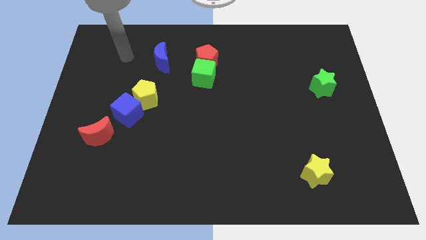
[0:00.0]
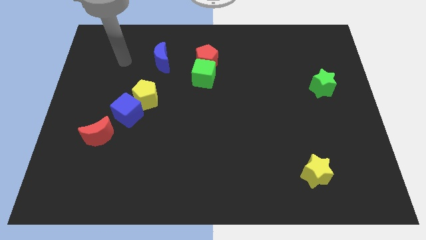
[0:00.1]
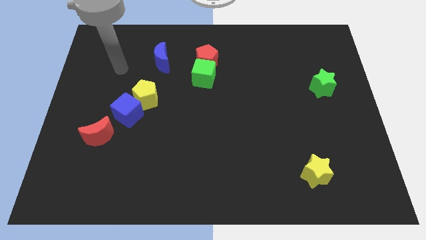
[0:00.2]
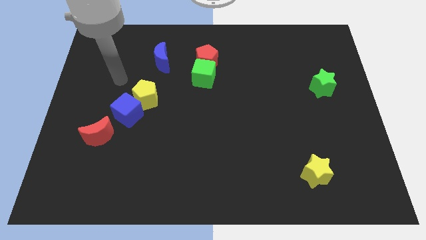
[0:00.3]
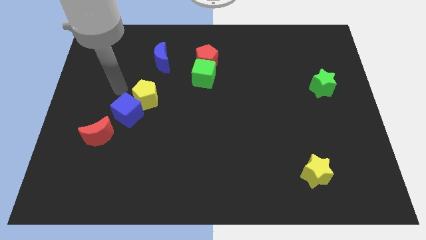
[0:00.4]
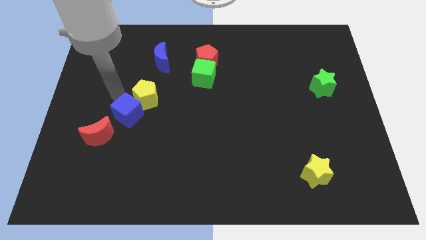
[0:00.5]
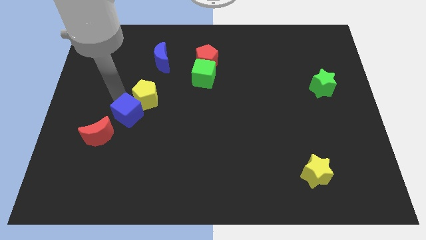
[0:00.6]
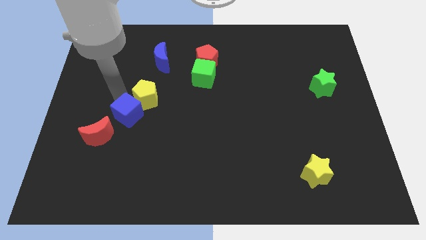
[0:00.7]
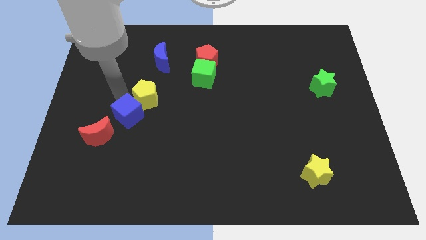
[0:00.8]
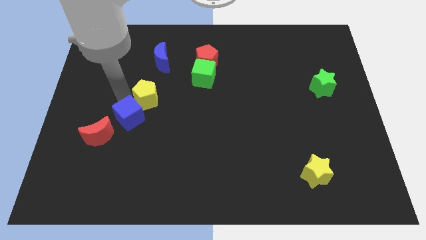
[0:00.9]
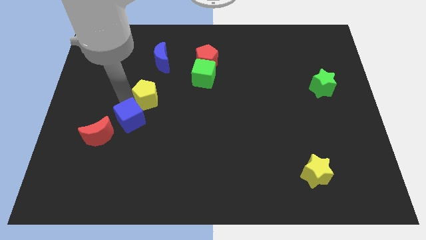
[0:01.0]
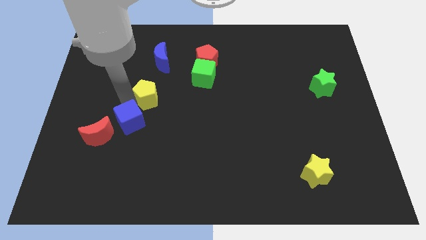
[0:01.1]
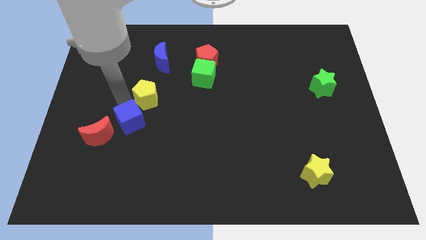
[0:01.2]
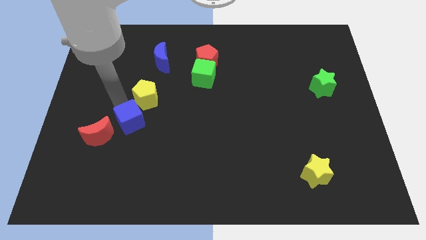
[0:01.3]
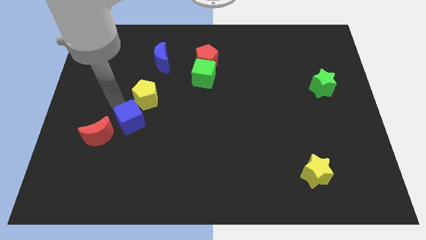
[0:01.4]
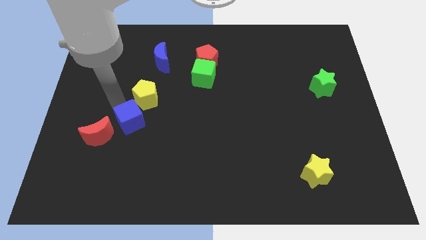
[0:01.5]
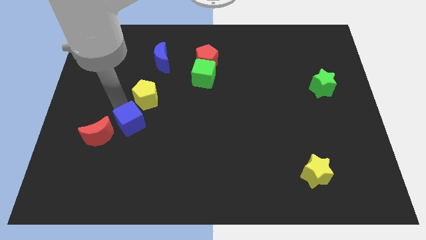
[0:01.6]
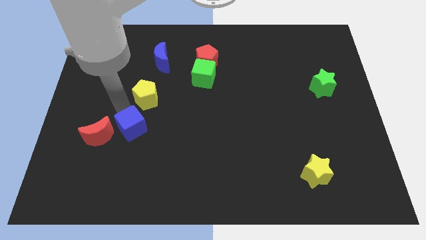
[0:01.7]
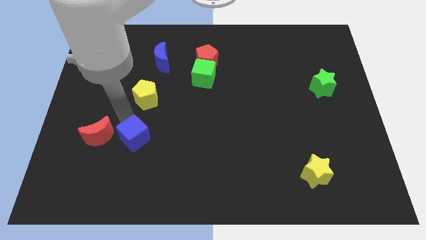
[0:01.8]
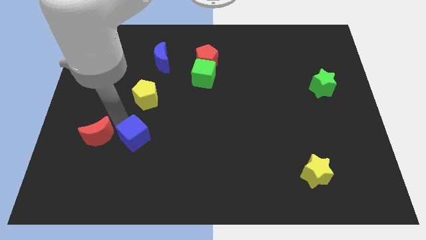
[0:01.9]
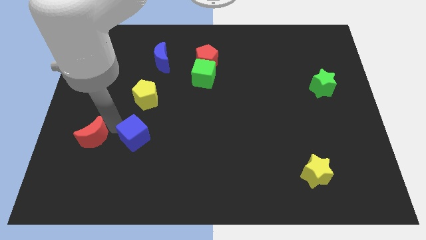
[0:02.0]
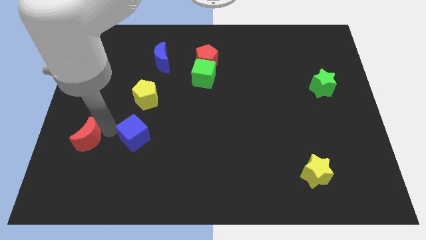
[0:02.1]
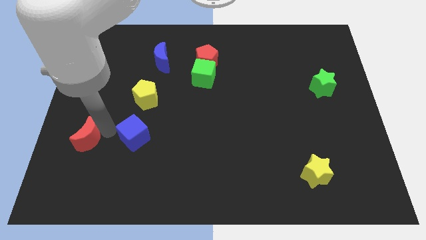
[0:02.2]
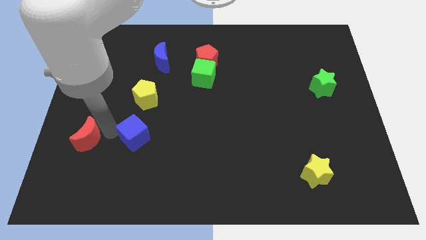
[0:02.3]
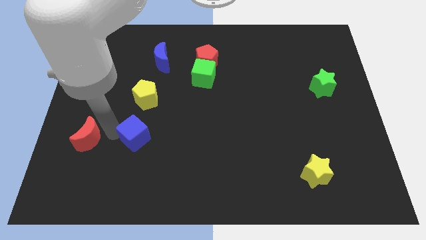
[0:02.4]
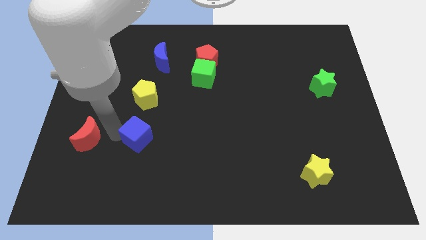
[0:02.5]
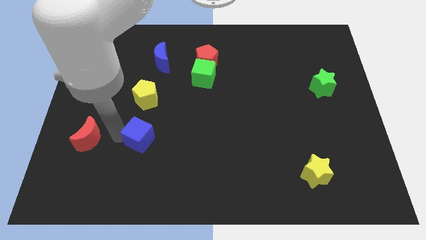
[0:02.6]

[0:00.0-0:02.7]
slightly push the blue cube down and to the right

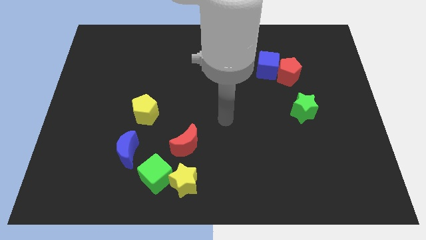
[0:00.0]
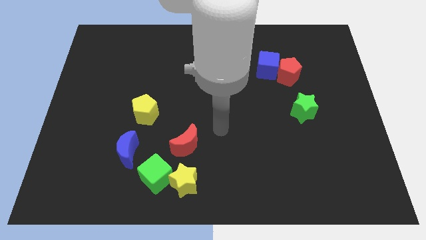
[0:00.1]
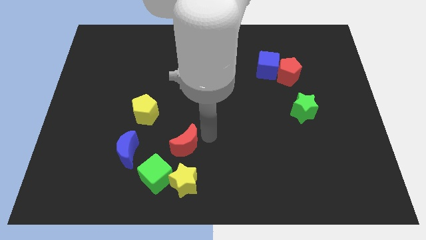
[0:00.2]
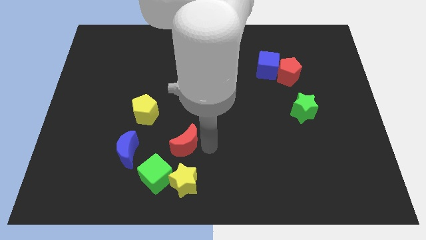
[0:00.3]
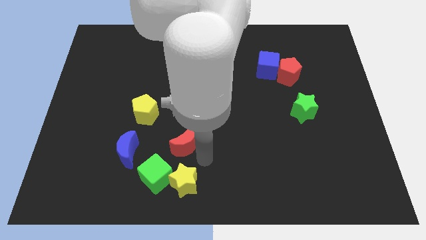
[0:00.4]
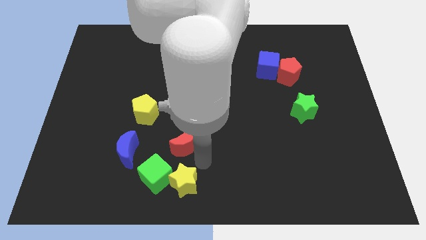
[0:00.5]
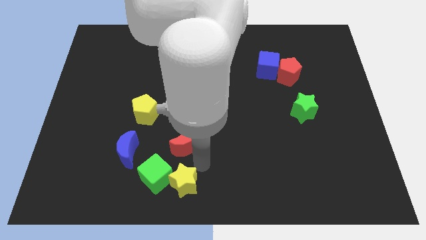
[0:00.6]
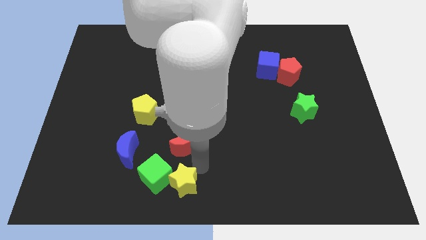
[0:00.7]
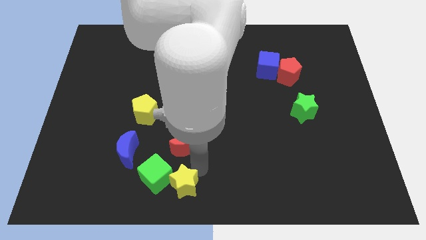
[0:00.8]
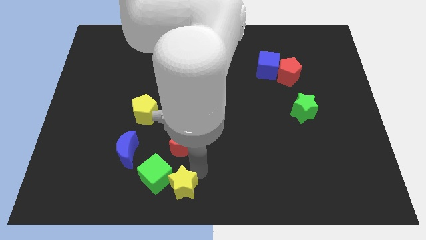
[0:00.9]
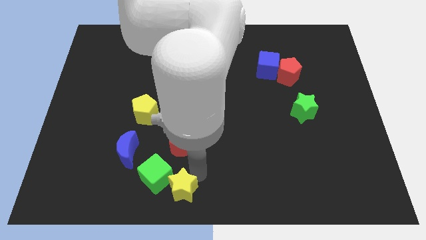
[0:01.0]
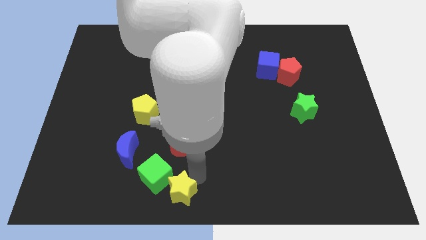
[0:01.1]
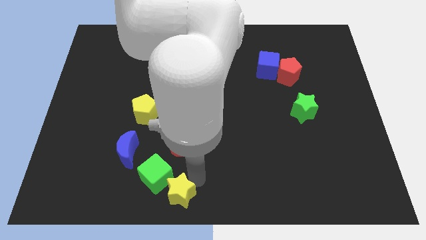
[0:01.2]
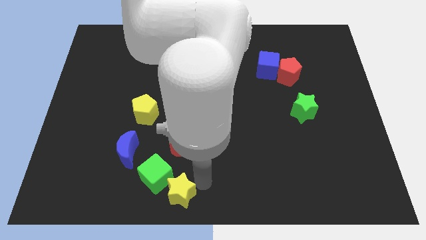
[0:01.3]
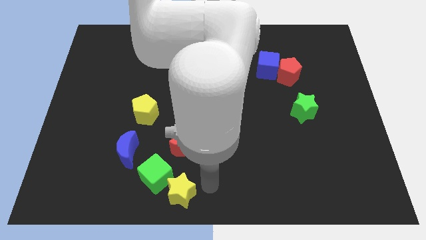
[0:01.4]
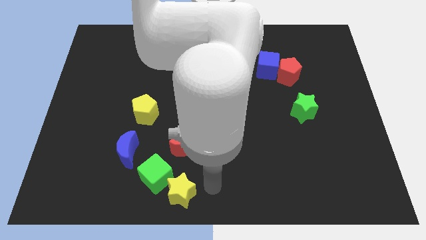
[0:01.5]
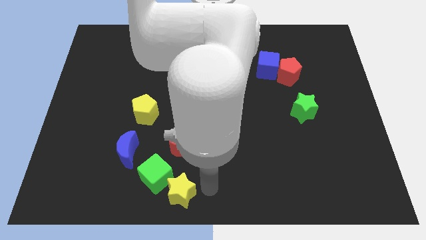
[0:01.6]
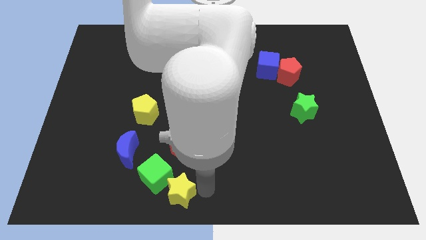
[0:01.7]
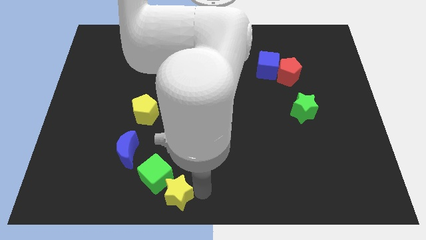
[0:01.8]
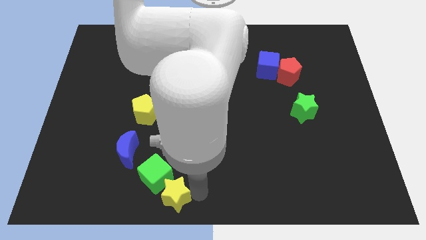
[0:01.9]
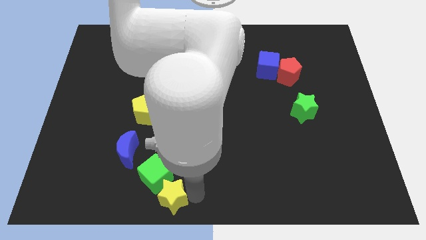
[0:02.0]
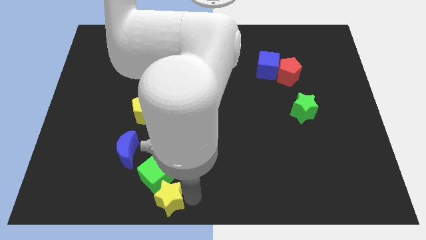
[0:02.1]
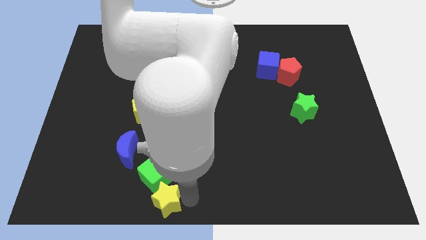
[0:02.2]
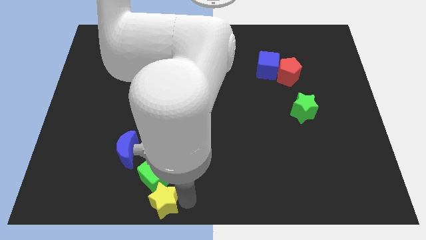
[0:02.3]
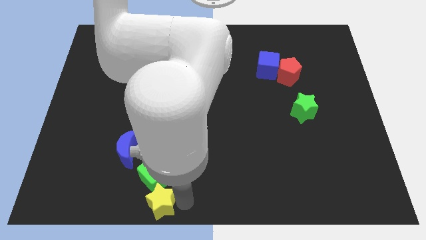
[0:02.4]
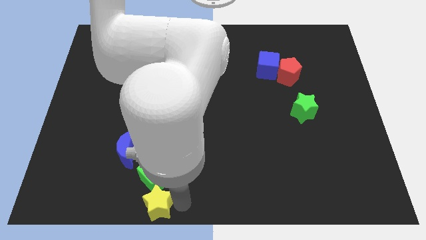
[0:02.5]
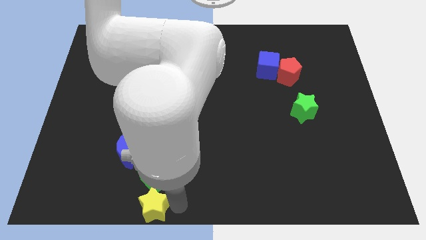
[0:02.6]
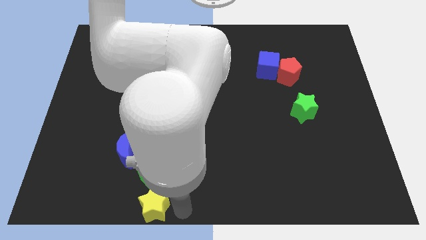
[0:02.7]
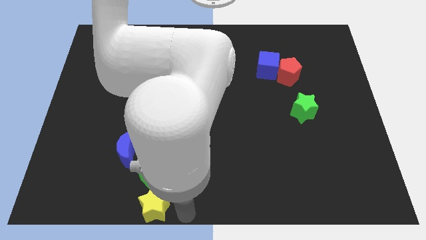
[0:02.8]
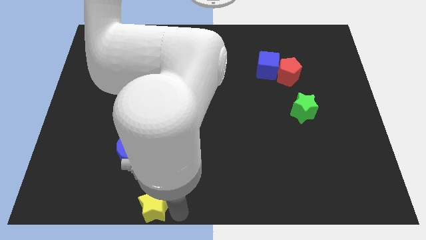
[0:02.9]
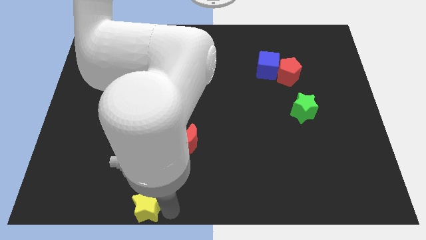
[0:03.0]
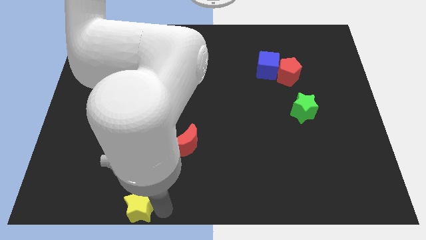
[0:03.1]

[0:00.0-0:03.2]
move the yellow star to the left a little

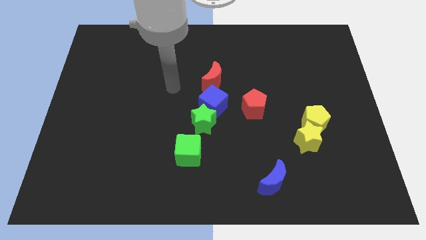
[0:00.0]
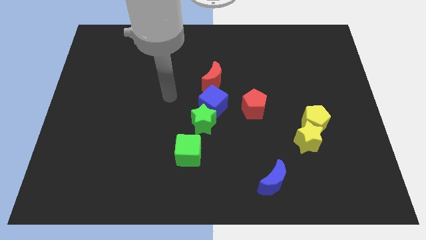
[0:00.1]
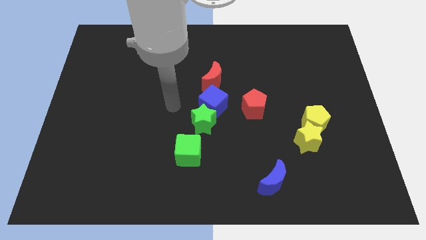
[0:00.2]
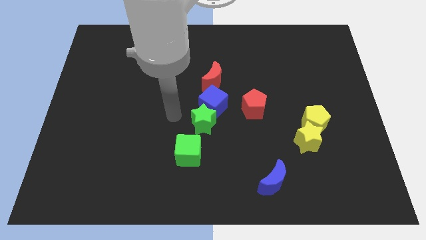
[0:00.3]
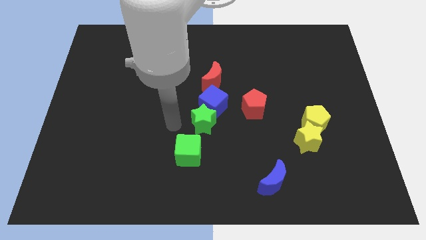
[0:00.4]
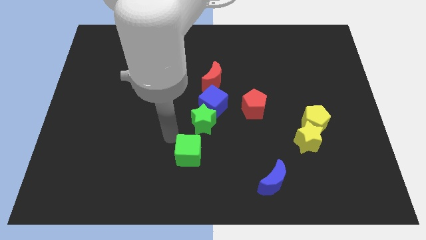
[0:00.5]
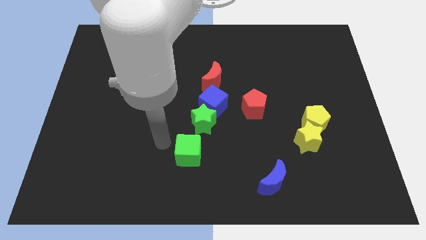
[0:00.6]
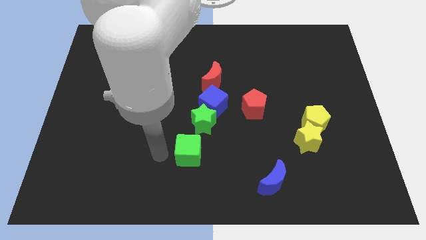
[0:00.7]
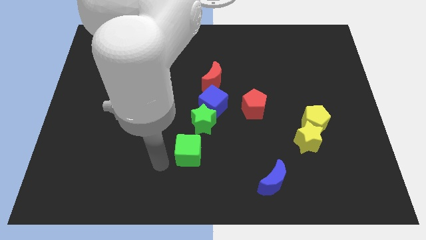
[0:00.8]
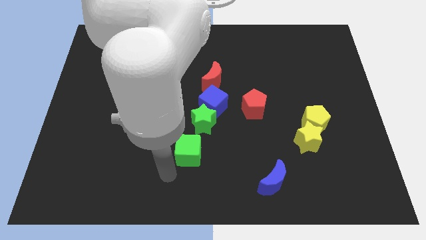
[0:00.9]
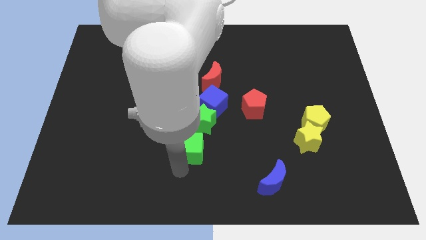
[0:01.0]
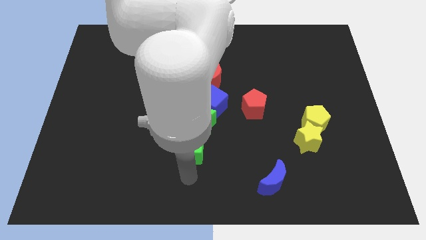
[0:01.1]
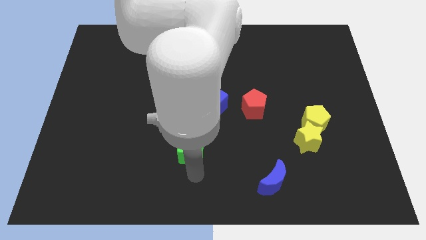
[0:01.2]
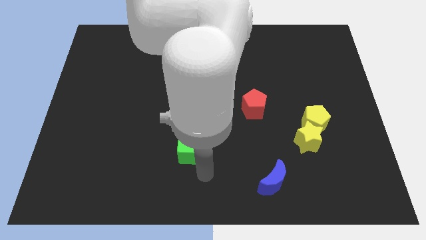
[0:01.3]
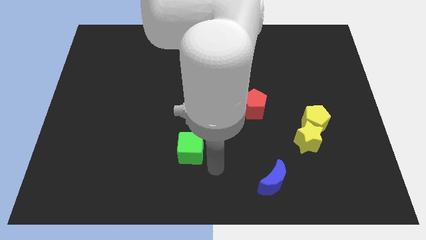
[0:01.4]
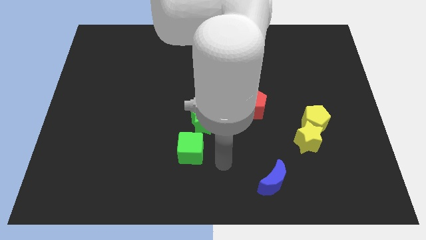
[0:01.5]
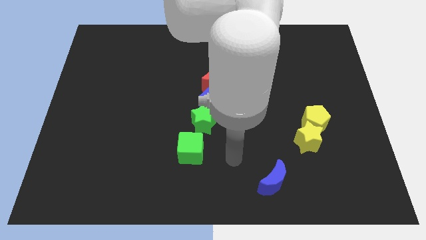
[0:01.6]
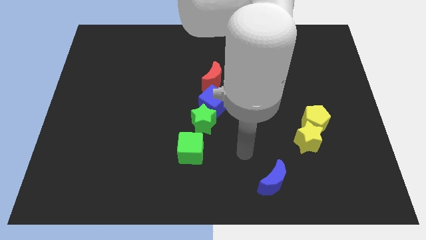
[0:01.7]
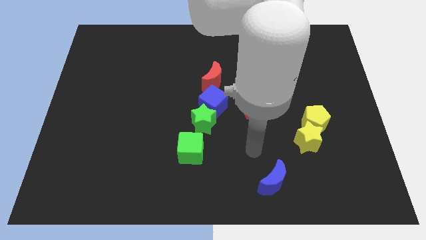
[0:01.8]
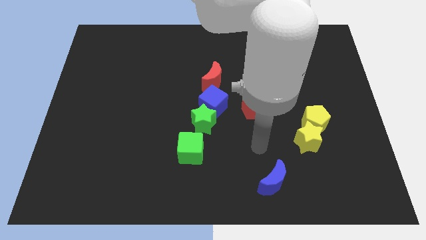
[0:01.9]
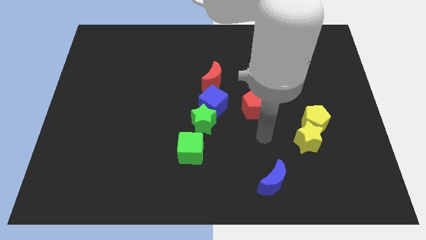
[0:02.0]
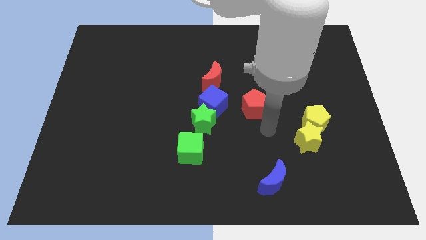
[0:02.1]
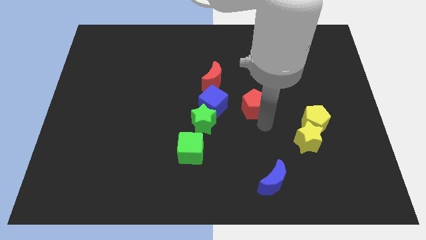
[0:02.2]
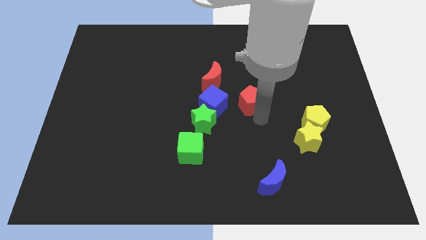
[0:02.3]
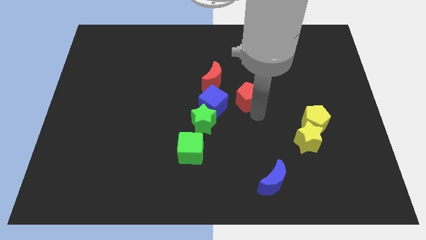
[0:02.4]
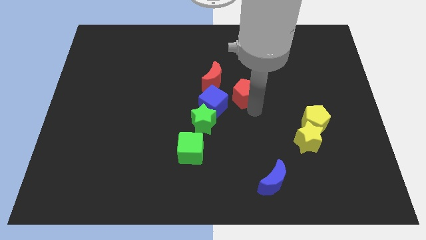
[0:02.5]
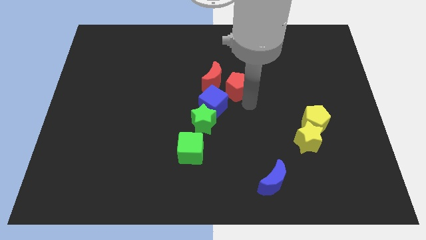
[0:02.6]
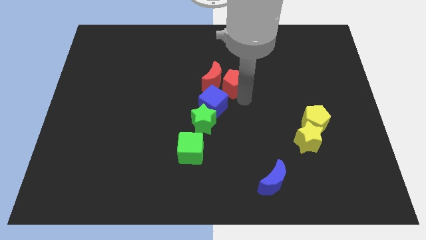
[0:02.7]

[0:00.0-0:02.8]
slightly push the red pentagon upwards and then left
